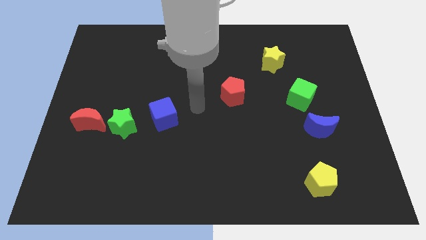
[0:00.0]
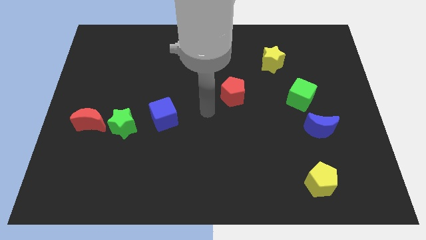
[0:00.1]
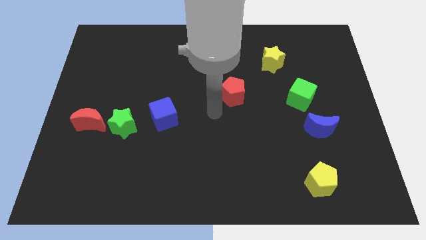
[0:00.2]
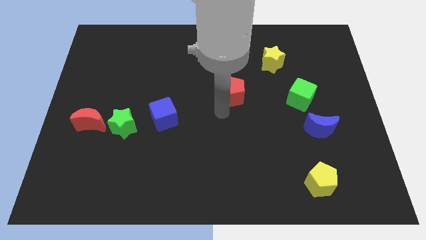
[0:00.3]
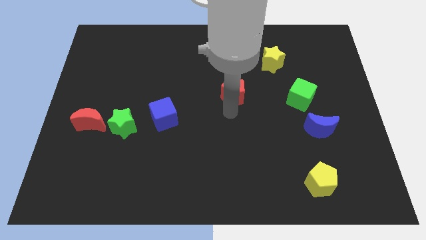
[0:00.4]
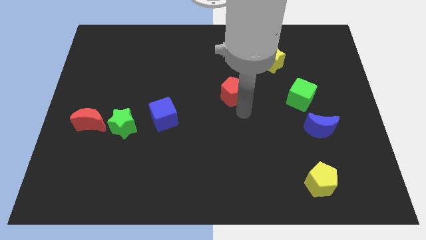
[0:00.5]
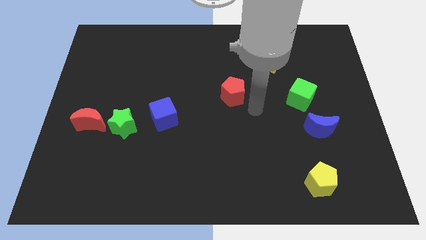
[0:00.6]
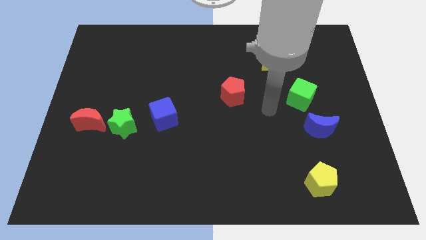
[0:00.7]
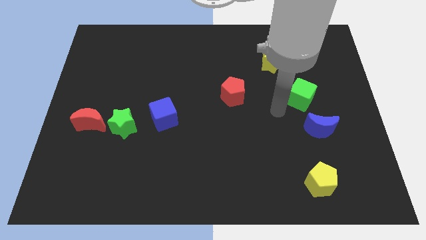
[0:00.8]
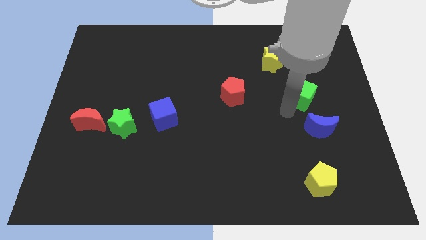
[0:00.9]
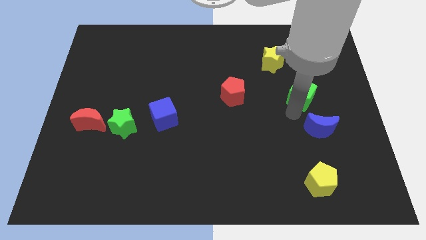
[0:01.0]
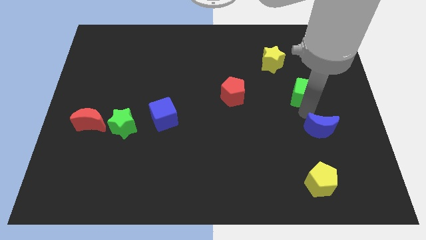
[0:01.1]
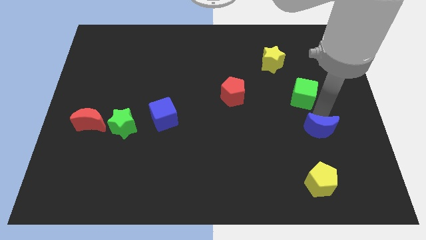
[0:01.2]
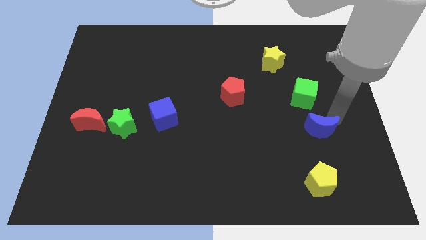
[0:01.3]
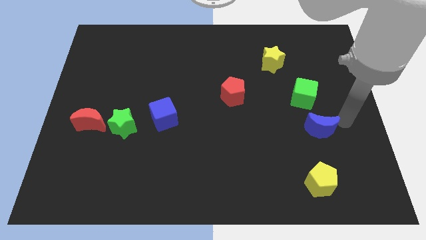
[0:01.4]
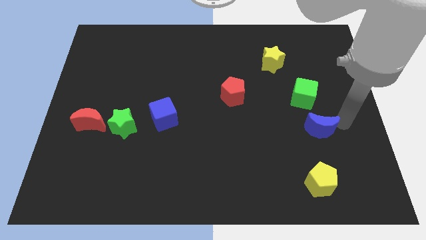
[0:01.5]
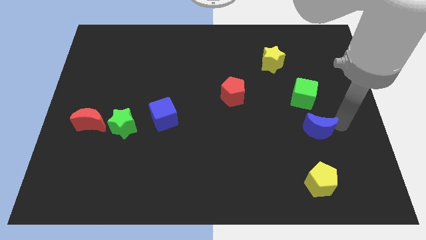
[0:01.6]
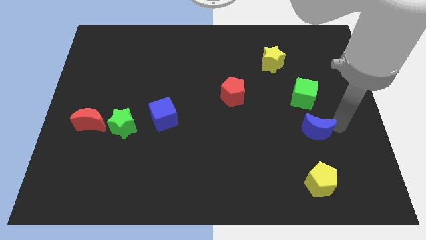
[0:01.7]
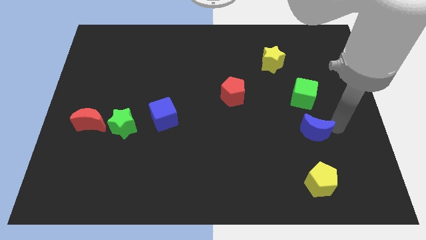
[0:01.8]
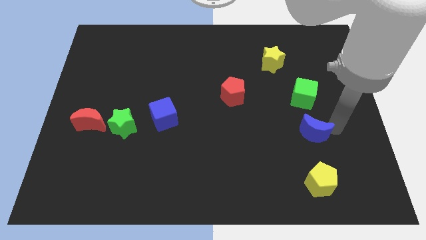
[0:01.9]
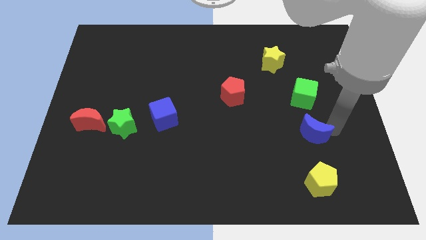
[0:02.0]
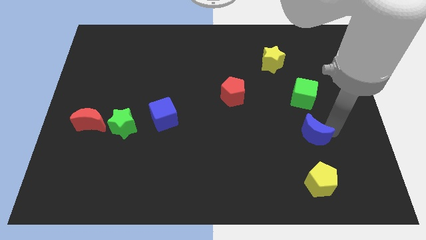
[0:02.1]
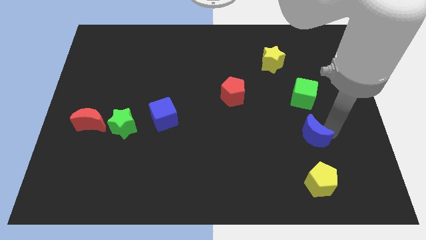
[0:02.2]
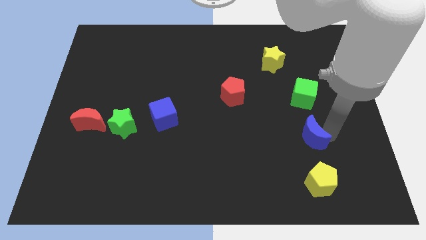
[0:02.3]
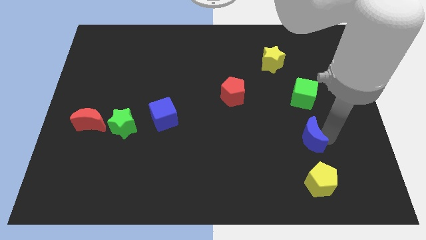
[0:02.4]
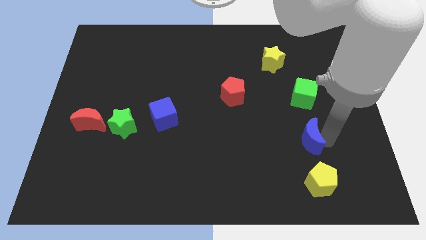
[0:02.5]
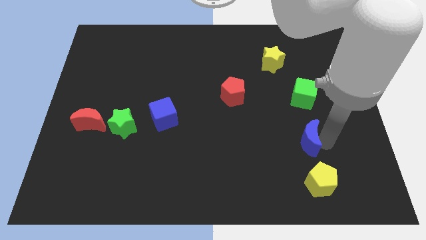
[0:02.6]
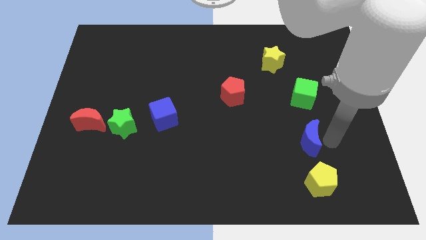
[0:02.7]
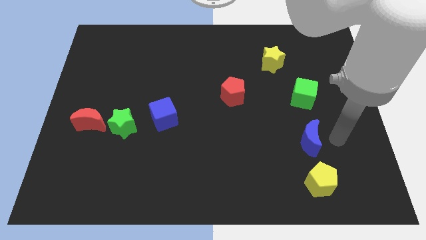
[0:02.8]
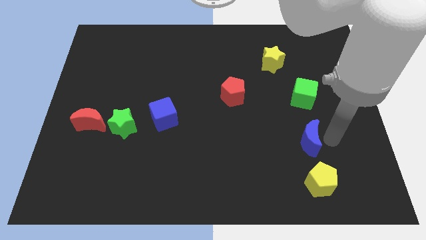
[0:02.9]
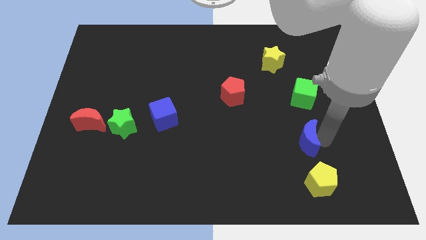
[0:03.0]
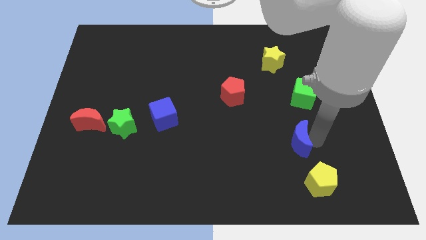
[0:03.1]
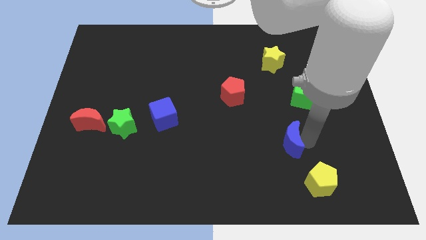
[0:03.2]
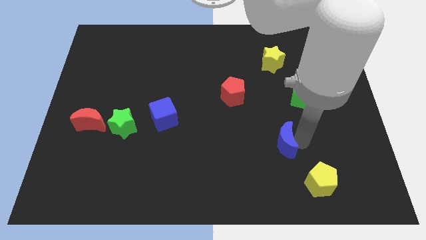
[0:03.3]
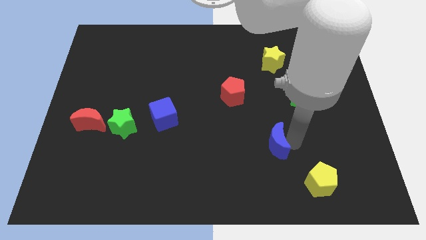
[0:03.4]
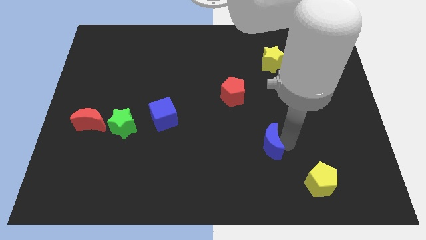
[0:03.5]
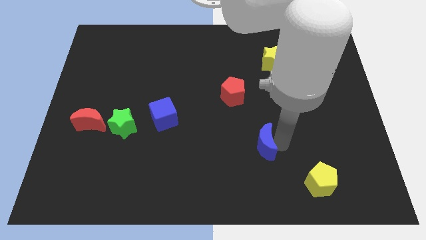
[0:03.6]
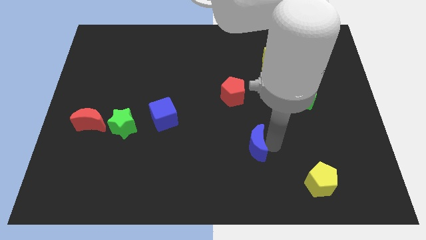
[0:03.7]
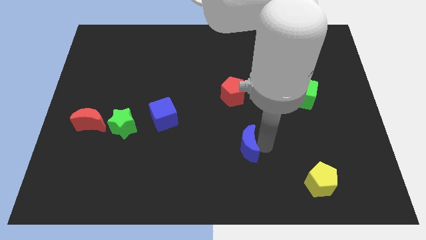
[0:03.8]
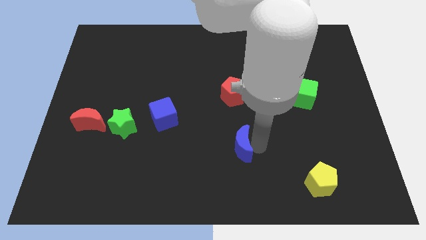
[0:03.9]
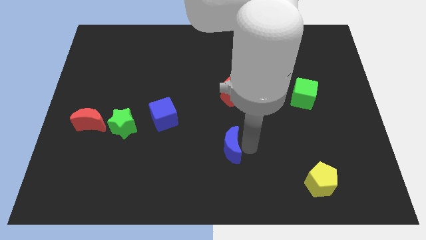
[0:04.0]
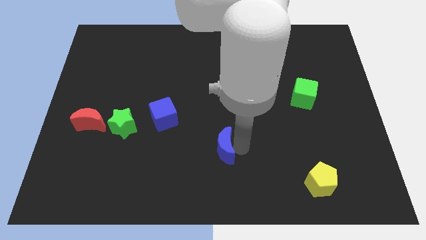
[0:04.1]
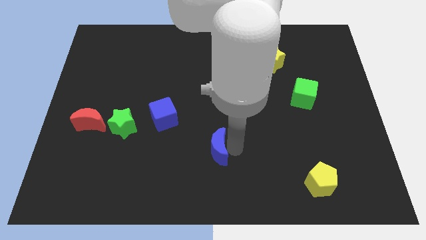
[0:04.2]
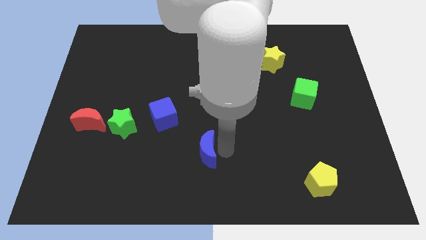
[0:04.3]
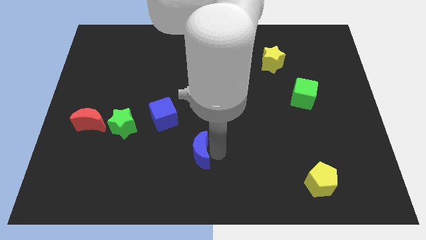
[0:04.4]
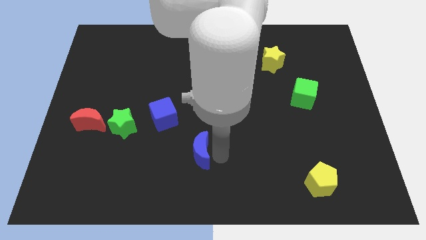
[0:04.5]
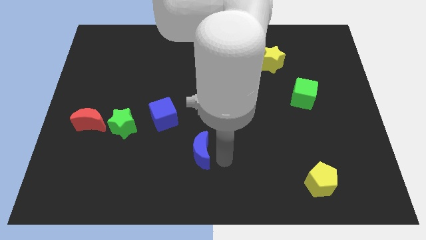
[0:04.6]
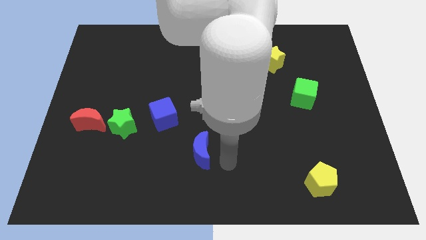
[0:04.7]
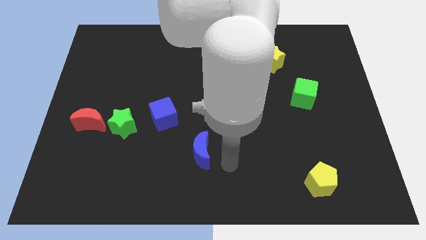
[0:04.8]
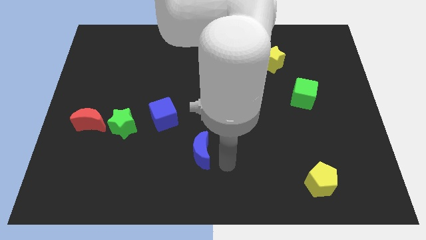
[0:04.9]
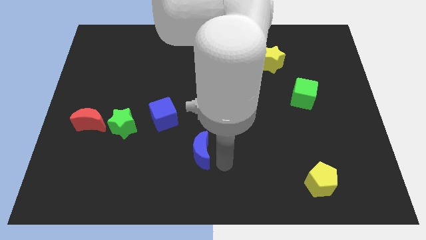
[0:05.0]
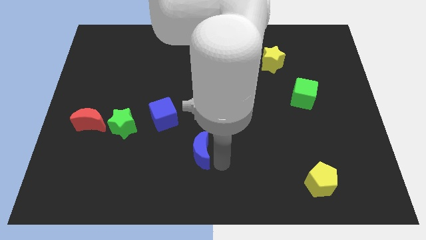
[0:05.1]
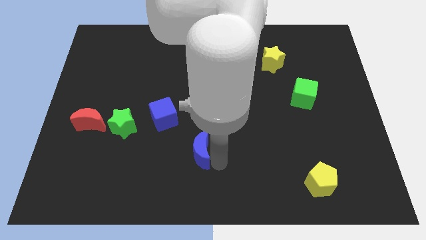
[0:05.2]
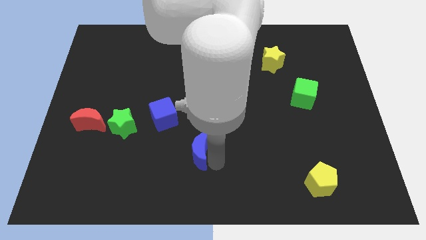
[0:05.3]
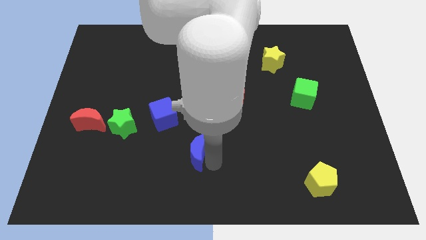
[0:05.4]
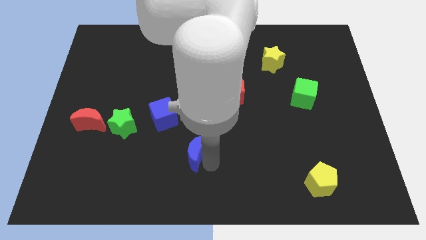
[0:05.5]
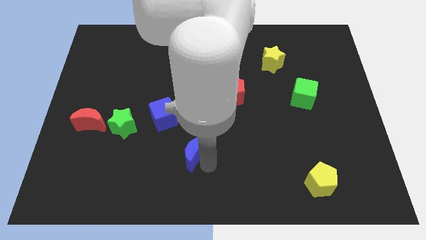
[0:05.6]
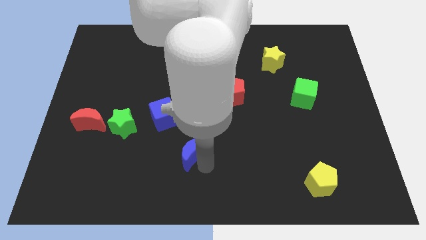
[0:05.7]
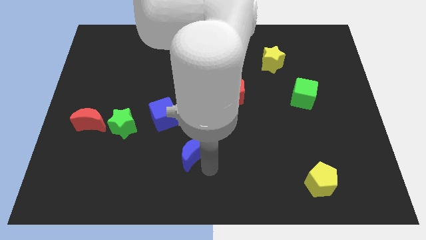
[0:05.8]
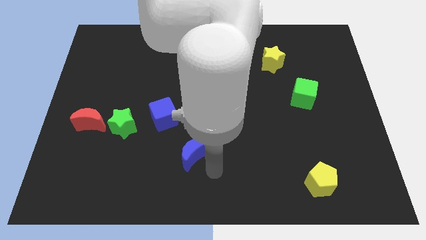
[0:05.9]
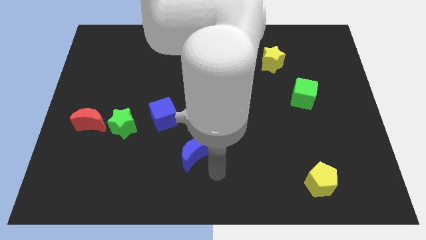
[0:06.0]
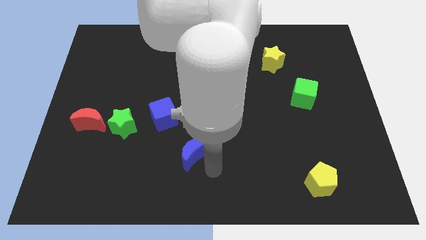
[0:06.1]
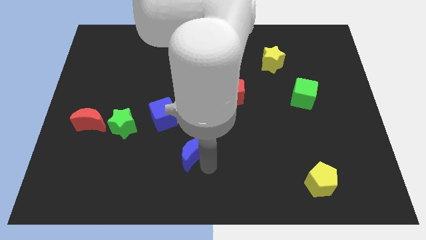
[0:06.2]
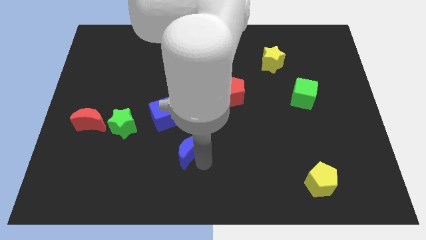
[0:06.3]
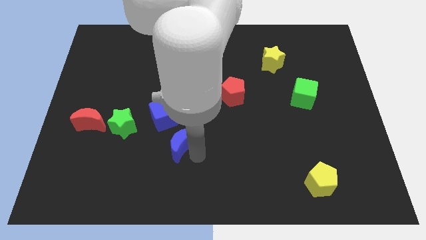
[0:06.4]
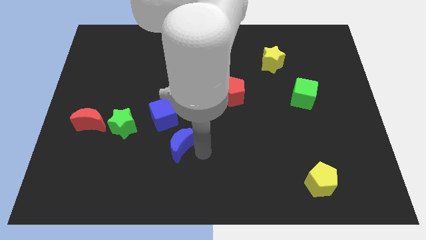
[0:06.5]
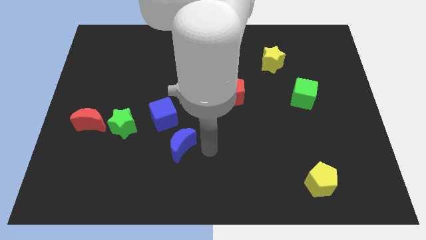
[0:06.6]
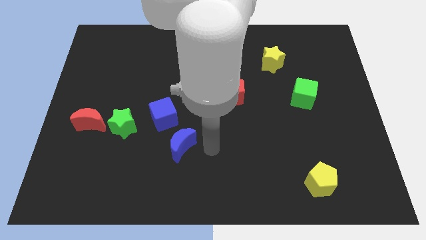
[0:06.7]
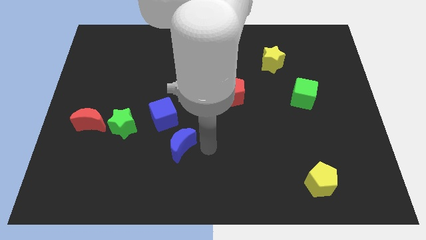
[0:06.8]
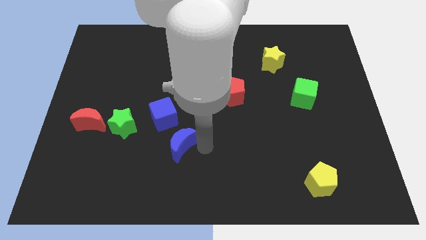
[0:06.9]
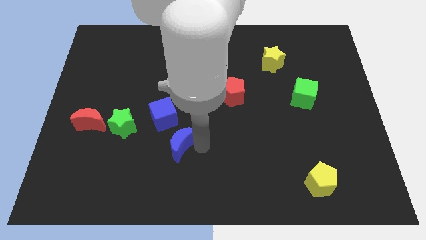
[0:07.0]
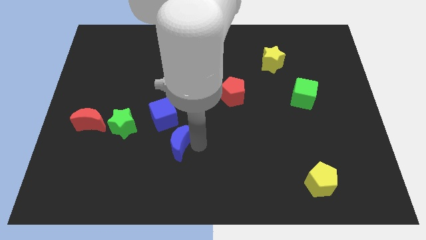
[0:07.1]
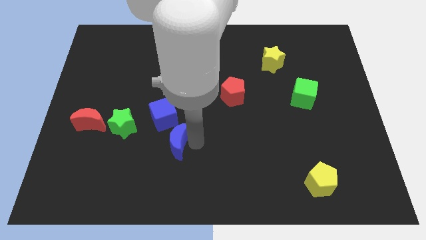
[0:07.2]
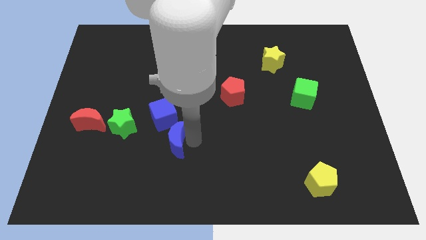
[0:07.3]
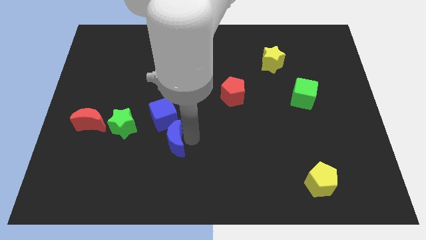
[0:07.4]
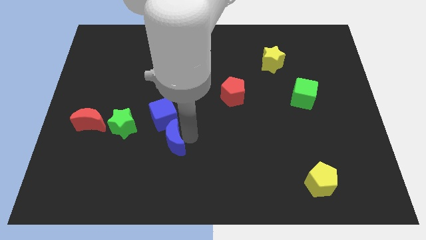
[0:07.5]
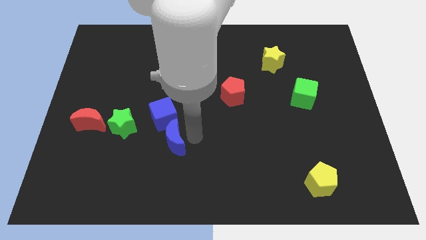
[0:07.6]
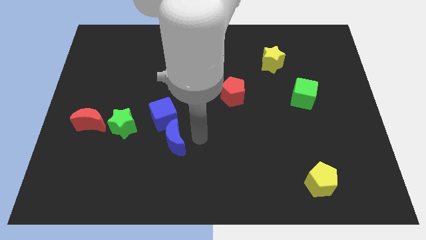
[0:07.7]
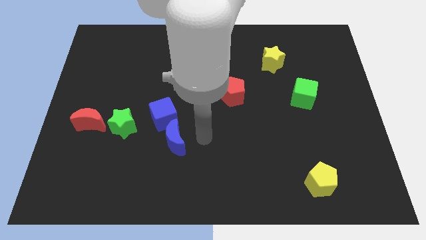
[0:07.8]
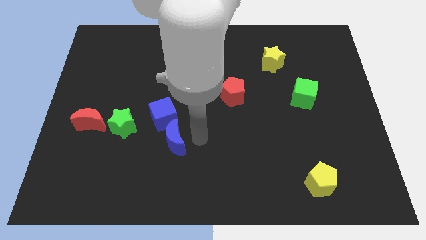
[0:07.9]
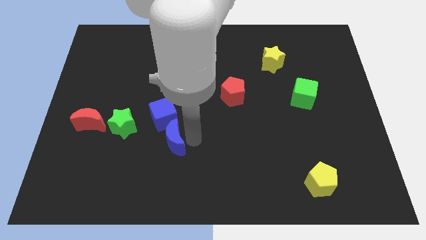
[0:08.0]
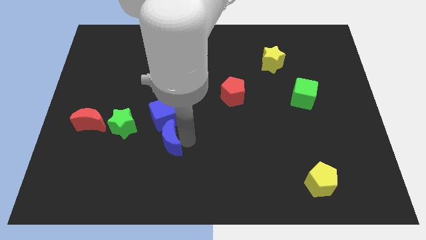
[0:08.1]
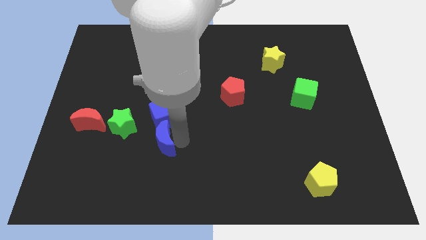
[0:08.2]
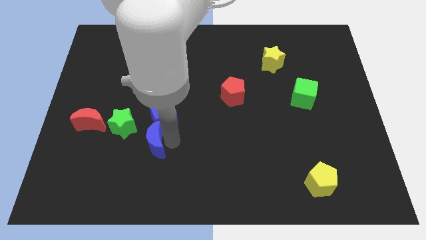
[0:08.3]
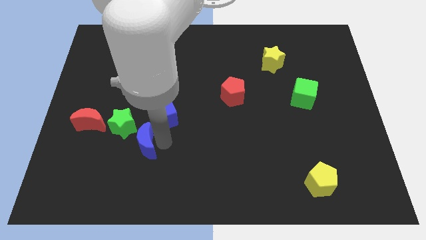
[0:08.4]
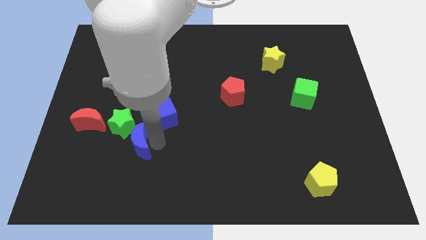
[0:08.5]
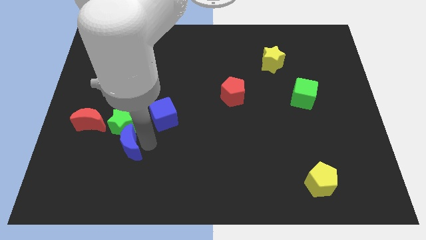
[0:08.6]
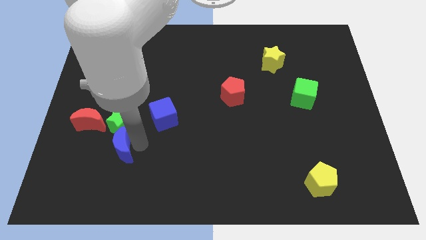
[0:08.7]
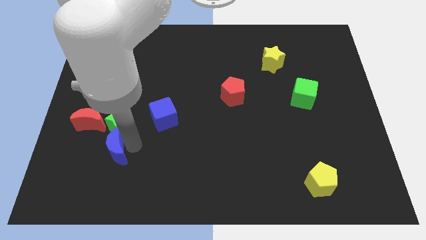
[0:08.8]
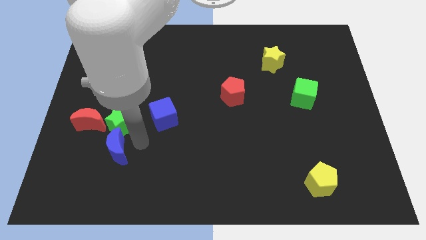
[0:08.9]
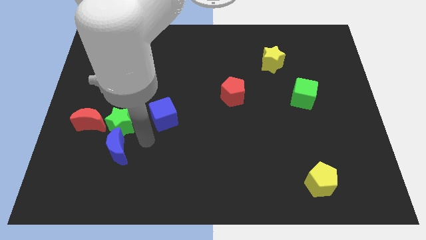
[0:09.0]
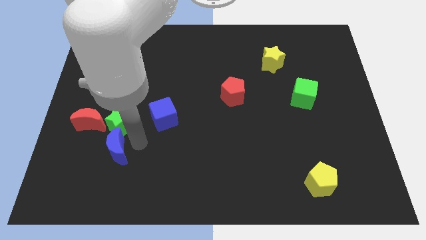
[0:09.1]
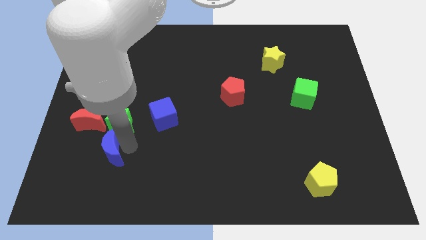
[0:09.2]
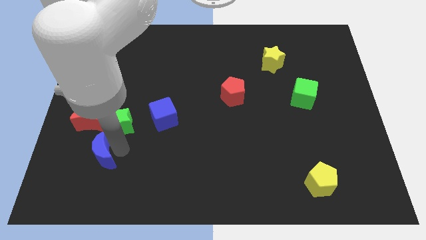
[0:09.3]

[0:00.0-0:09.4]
put the blue moon to the bottom of the red moon
